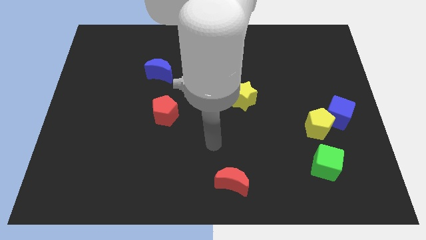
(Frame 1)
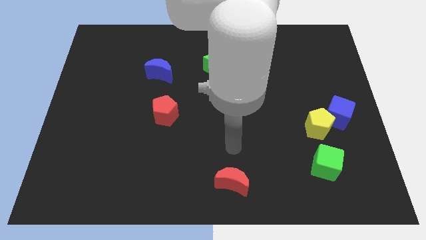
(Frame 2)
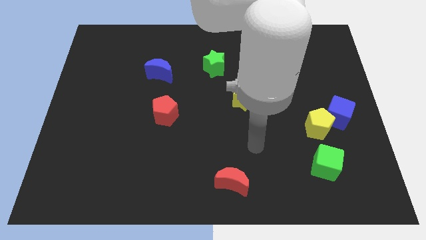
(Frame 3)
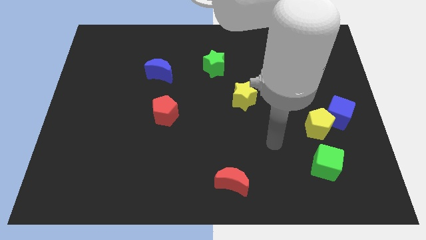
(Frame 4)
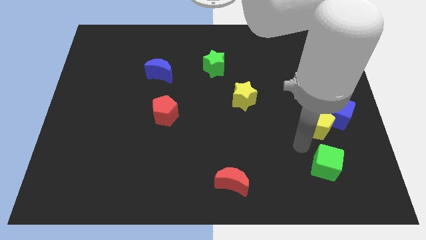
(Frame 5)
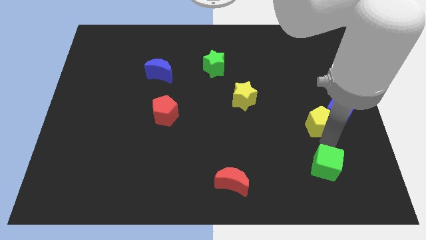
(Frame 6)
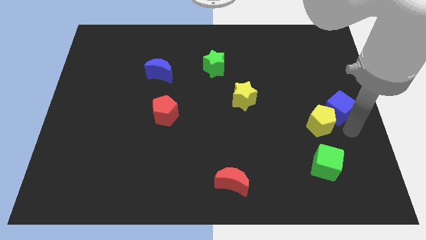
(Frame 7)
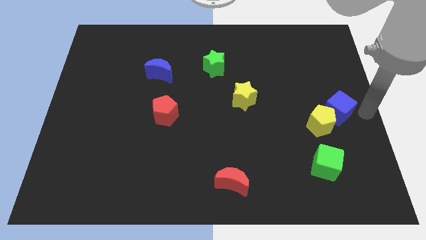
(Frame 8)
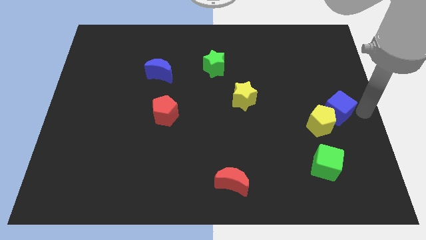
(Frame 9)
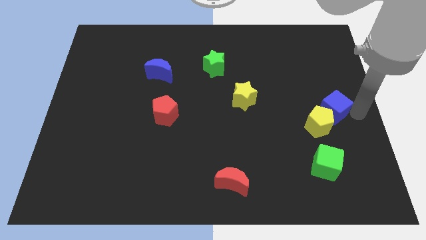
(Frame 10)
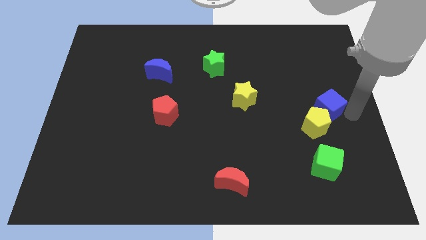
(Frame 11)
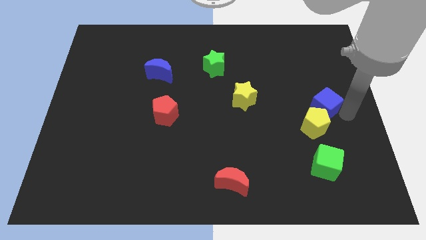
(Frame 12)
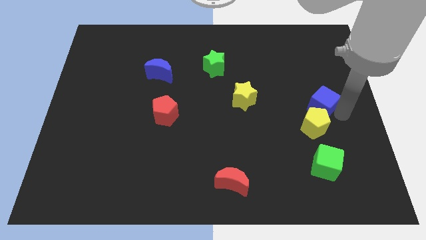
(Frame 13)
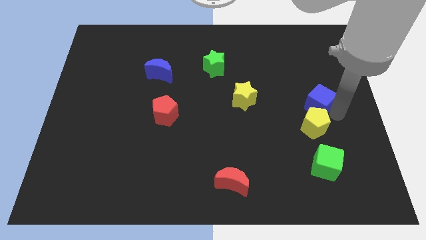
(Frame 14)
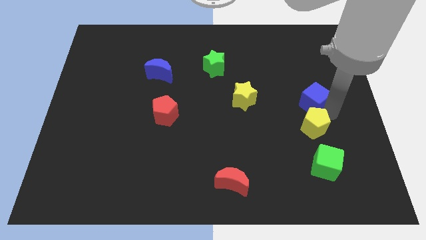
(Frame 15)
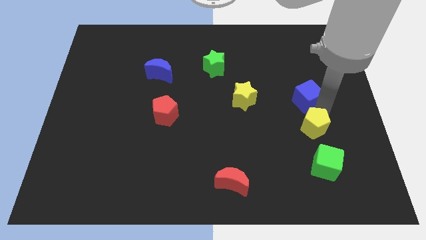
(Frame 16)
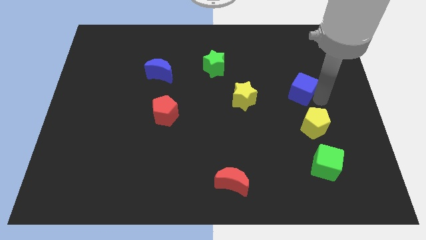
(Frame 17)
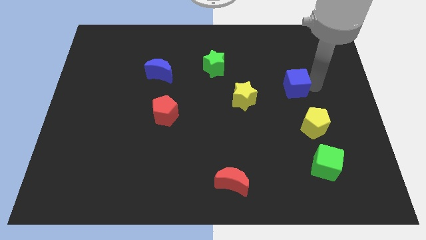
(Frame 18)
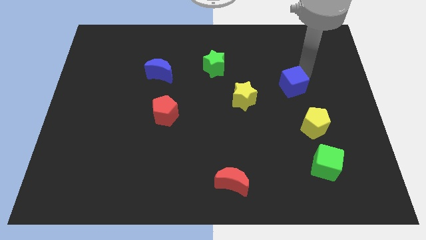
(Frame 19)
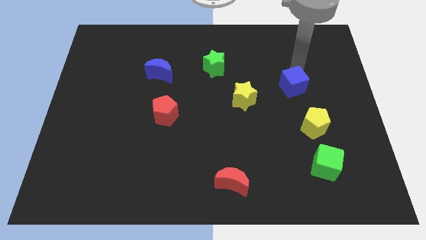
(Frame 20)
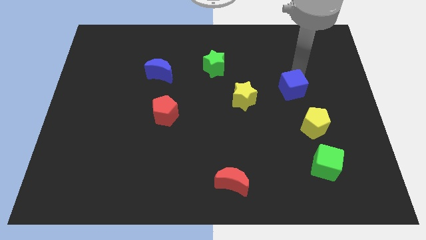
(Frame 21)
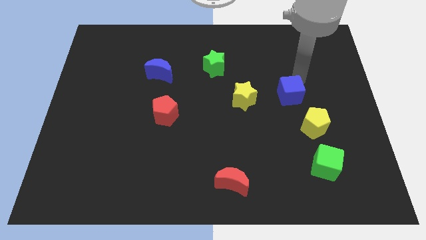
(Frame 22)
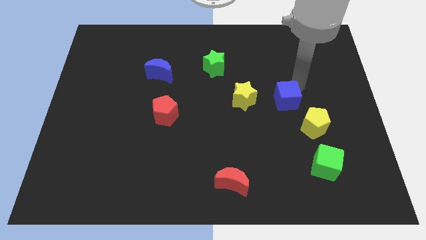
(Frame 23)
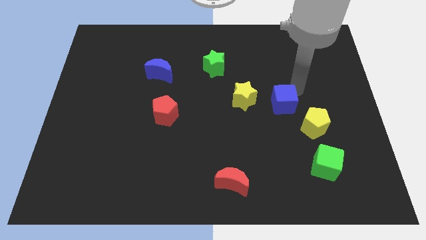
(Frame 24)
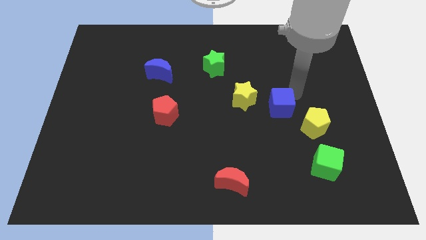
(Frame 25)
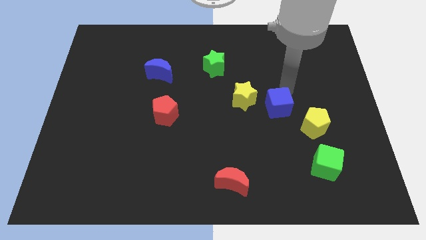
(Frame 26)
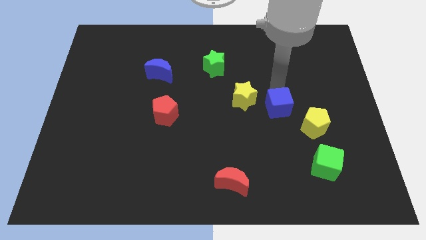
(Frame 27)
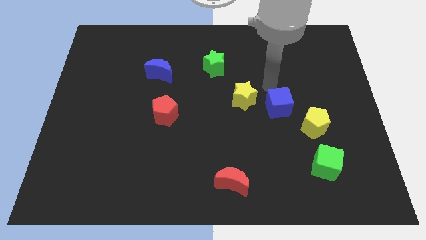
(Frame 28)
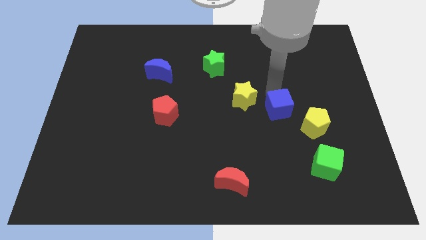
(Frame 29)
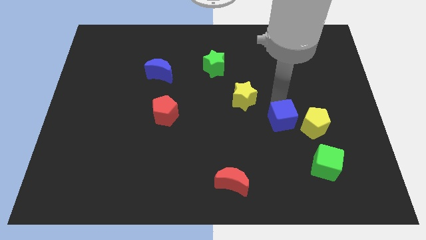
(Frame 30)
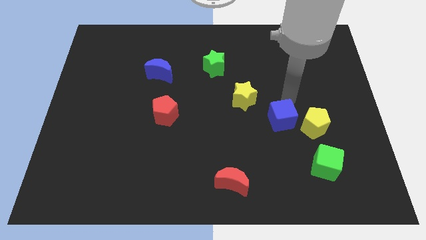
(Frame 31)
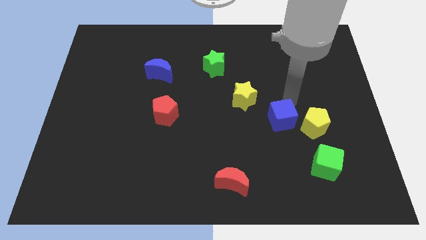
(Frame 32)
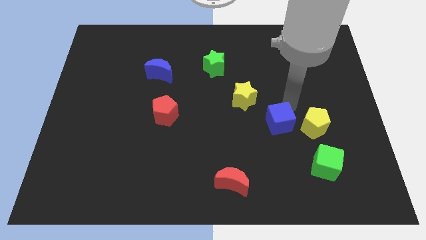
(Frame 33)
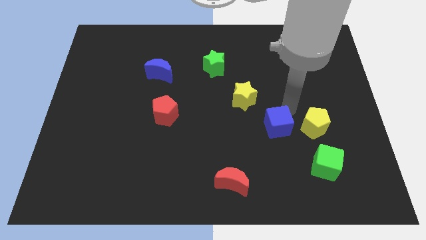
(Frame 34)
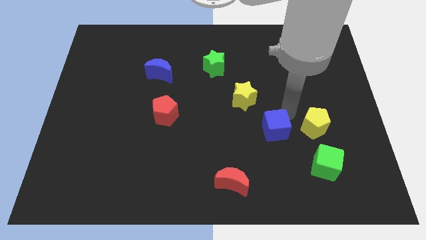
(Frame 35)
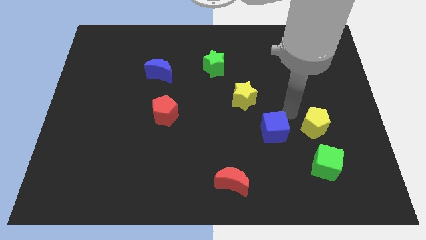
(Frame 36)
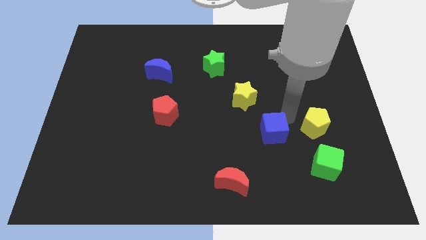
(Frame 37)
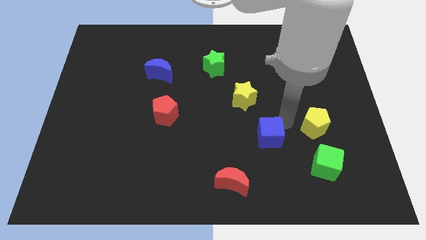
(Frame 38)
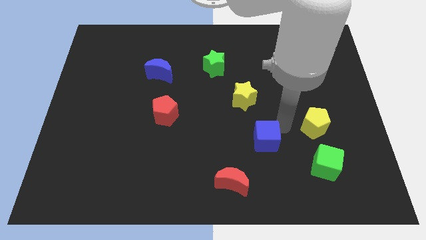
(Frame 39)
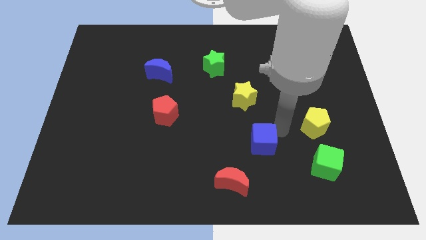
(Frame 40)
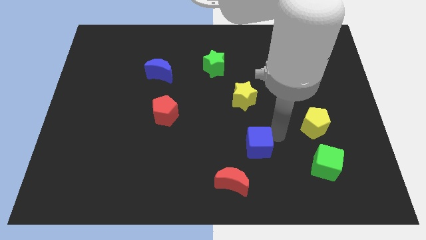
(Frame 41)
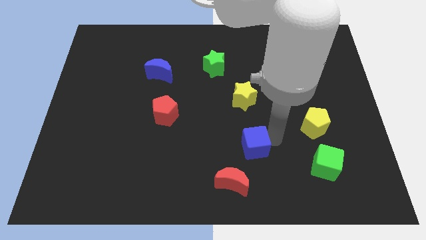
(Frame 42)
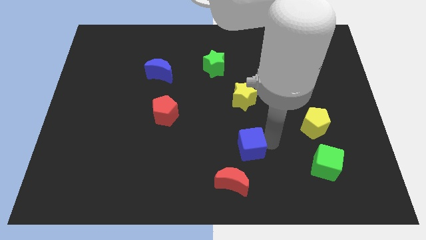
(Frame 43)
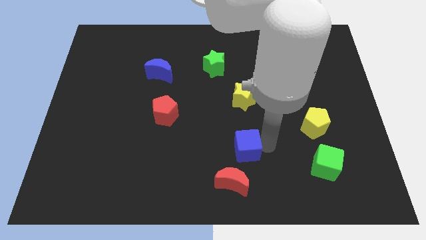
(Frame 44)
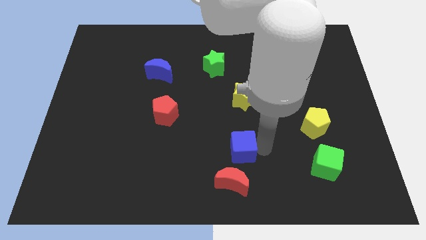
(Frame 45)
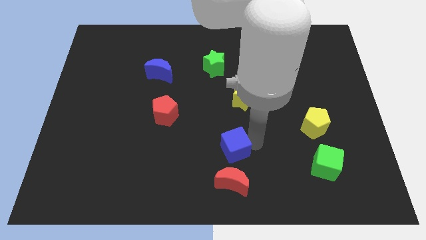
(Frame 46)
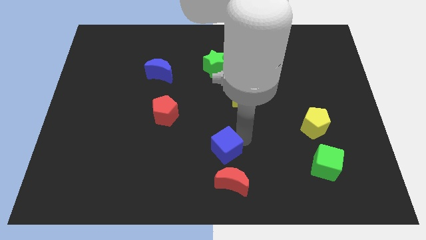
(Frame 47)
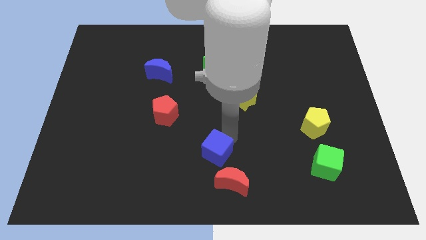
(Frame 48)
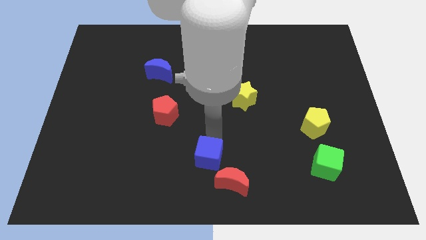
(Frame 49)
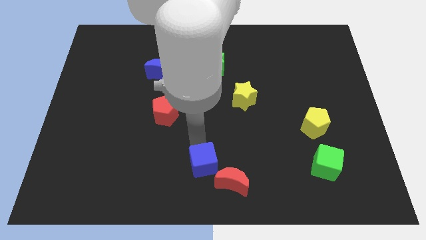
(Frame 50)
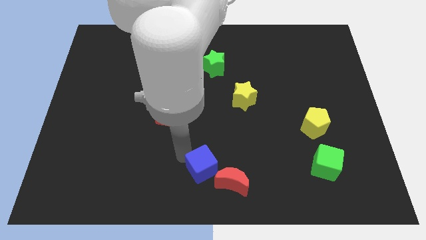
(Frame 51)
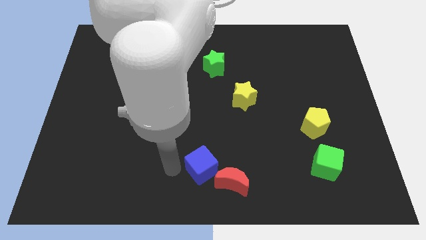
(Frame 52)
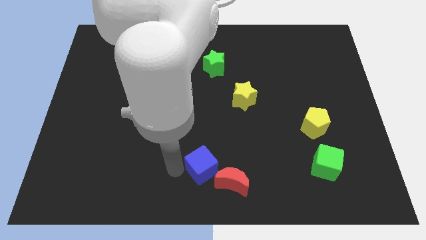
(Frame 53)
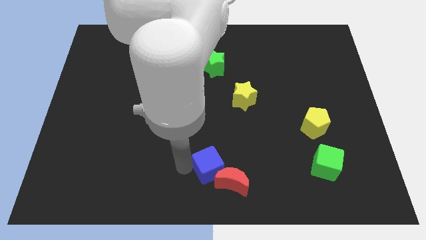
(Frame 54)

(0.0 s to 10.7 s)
put the blue cube towards the red moon

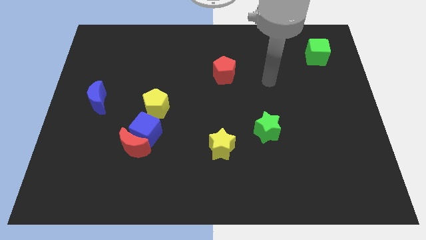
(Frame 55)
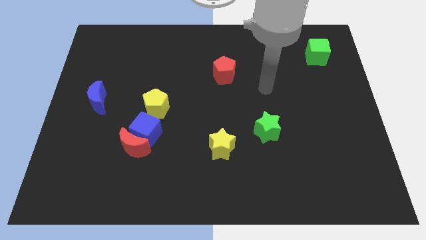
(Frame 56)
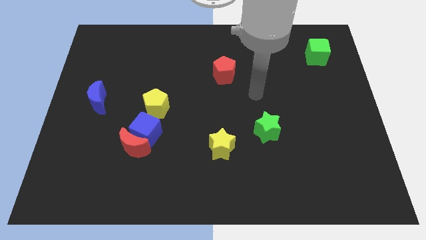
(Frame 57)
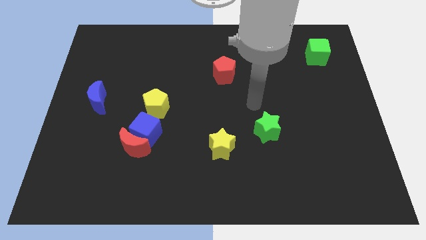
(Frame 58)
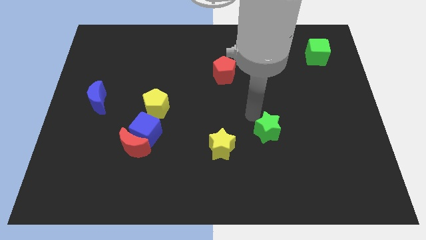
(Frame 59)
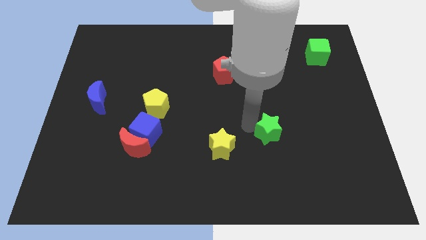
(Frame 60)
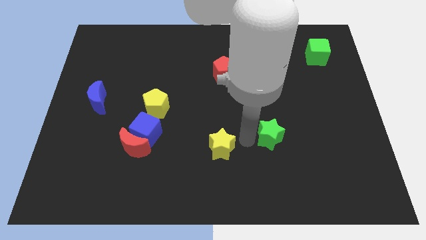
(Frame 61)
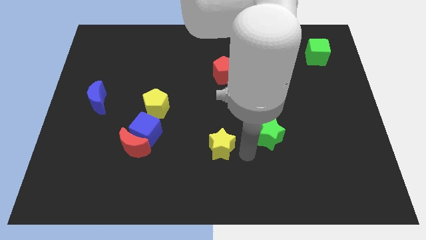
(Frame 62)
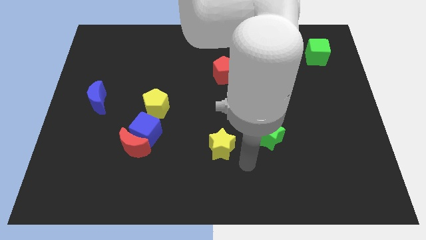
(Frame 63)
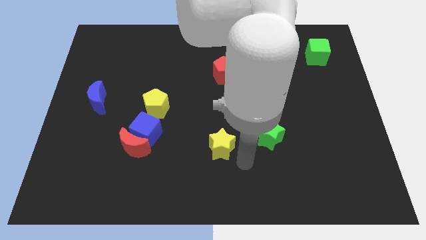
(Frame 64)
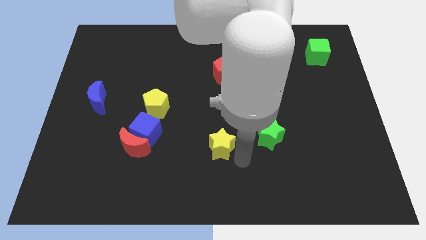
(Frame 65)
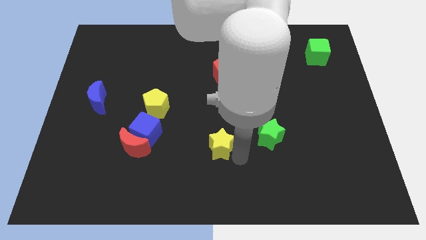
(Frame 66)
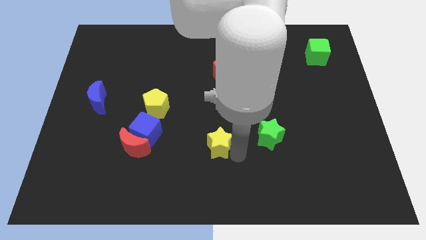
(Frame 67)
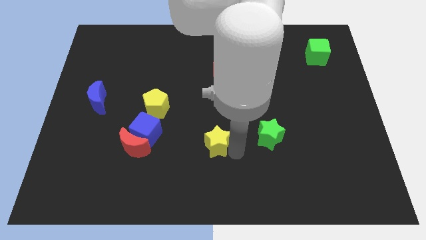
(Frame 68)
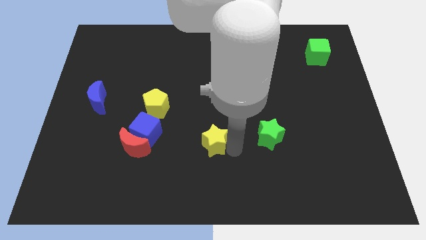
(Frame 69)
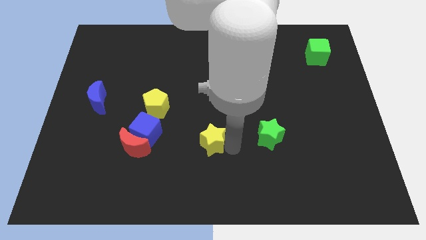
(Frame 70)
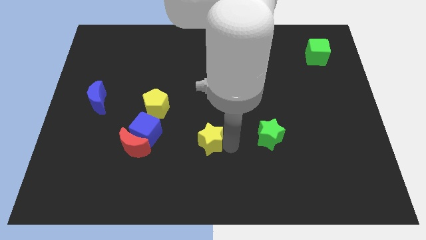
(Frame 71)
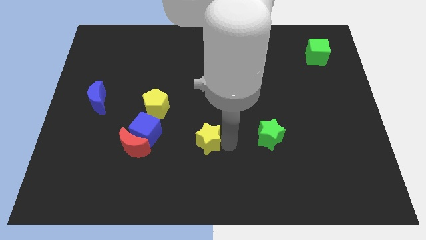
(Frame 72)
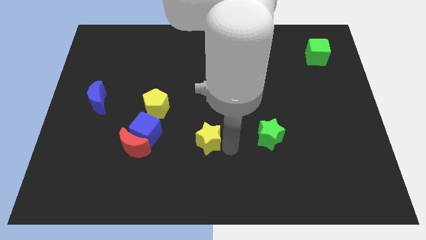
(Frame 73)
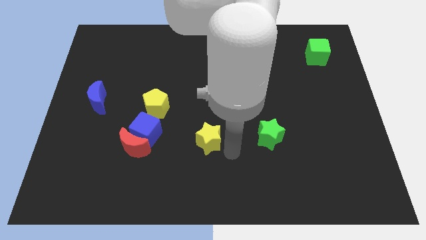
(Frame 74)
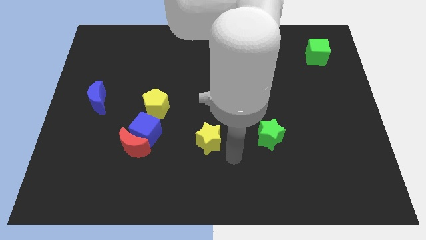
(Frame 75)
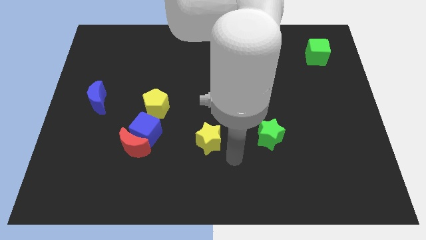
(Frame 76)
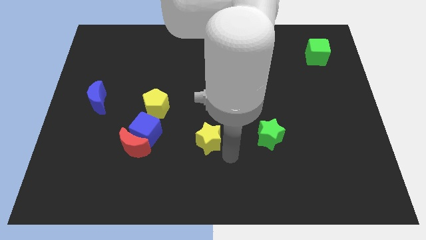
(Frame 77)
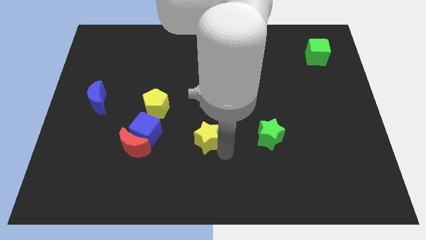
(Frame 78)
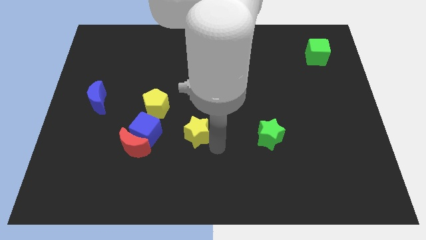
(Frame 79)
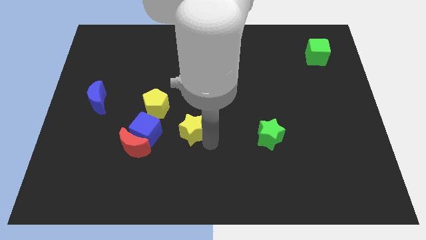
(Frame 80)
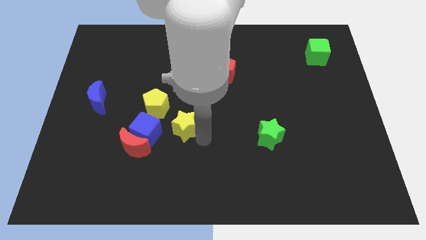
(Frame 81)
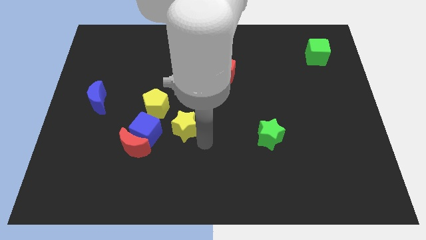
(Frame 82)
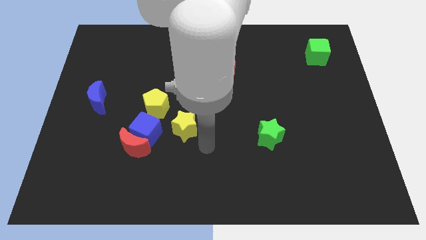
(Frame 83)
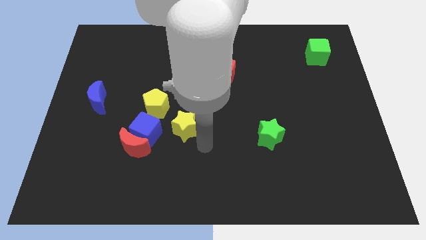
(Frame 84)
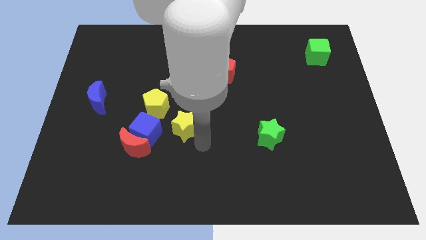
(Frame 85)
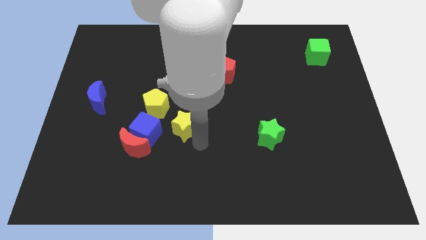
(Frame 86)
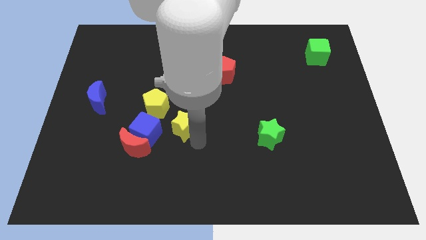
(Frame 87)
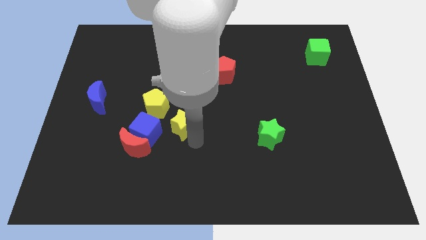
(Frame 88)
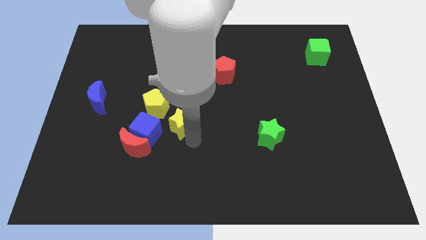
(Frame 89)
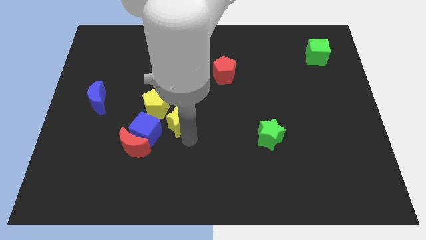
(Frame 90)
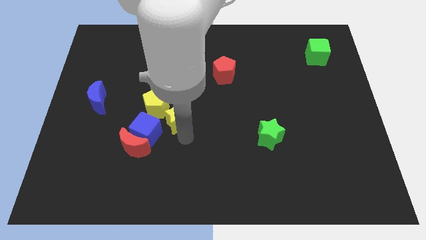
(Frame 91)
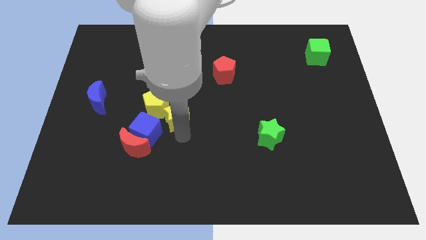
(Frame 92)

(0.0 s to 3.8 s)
move the yellow star towards the yellow pentagon
